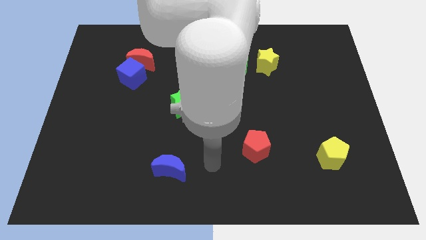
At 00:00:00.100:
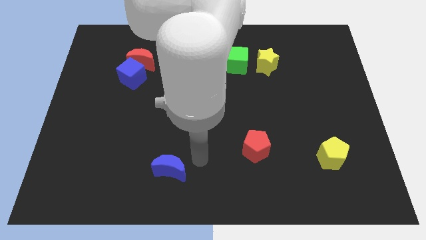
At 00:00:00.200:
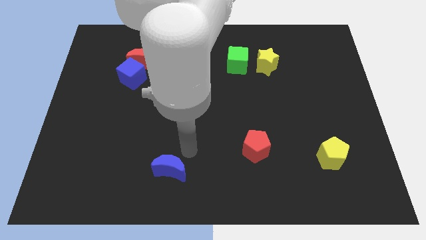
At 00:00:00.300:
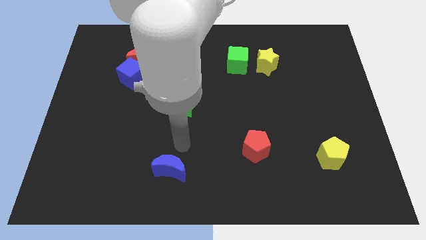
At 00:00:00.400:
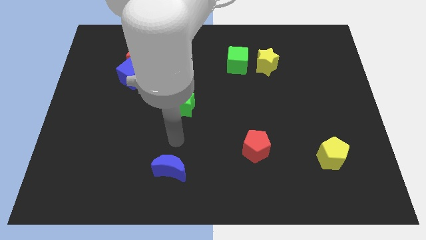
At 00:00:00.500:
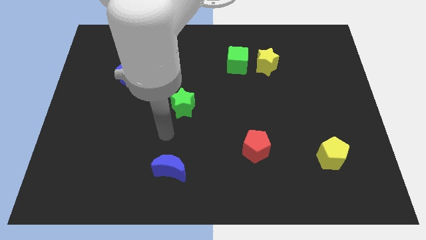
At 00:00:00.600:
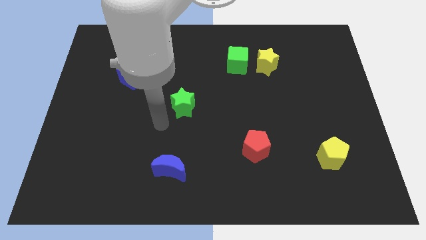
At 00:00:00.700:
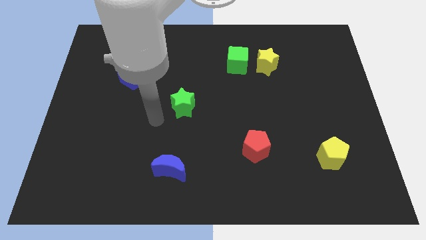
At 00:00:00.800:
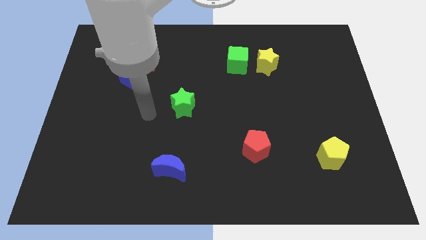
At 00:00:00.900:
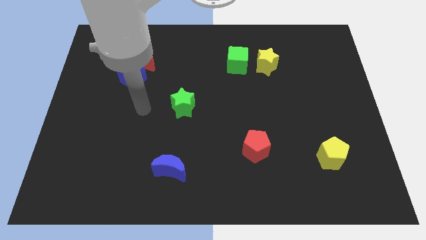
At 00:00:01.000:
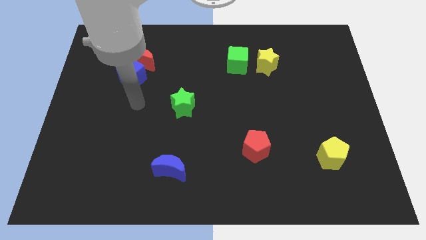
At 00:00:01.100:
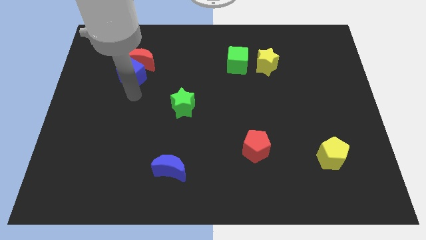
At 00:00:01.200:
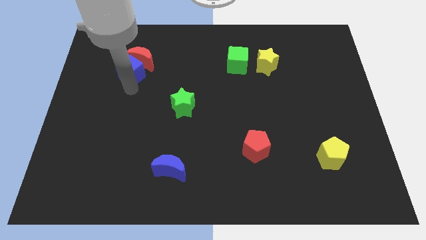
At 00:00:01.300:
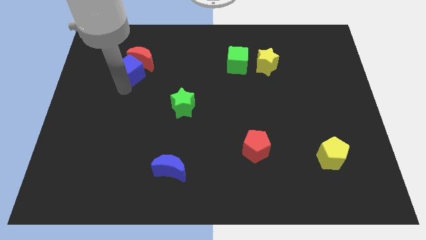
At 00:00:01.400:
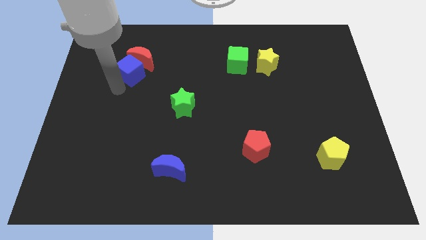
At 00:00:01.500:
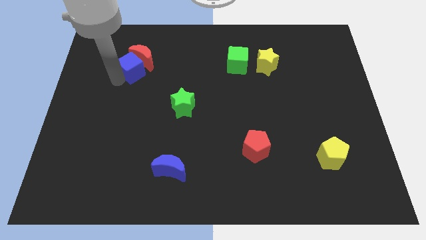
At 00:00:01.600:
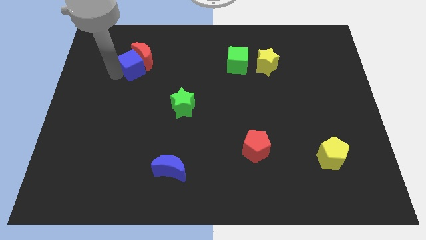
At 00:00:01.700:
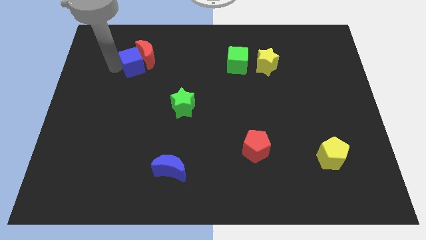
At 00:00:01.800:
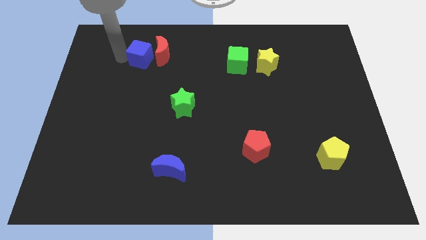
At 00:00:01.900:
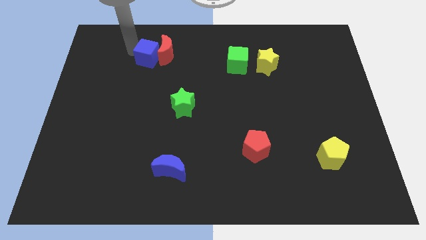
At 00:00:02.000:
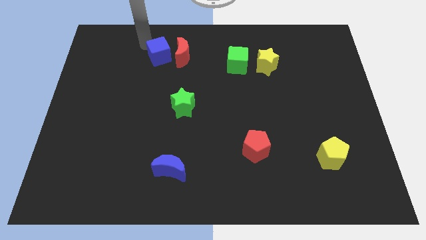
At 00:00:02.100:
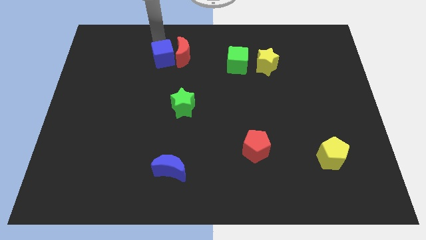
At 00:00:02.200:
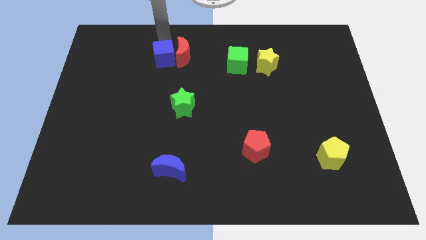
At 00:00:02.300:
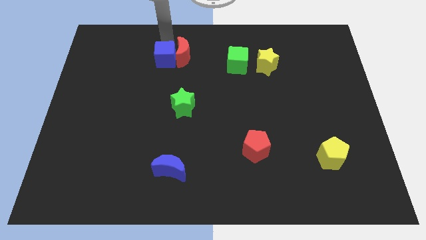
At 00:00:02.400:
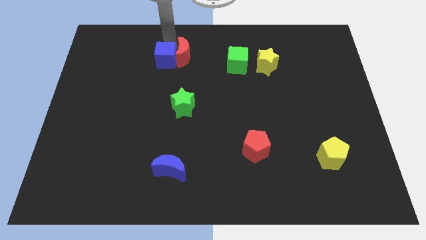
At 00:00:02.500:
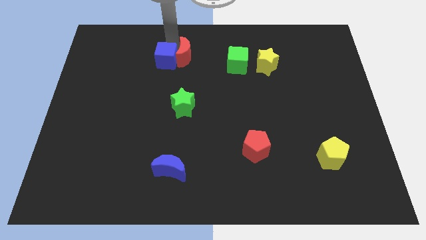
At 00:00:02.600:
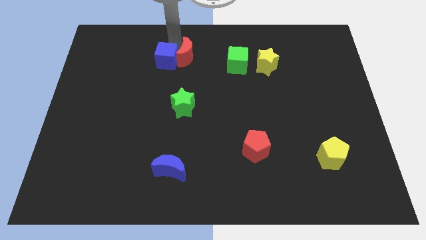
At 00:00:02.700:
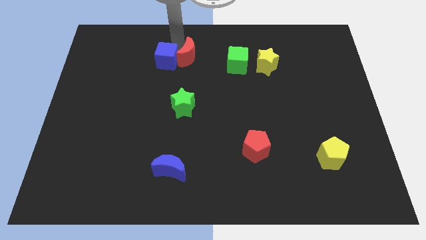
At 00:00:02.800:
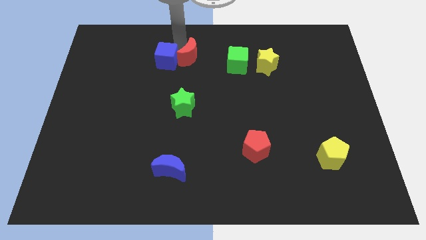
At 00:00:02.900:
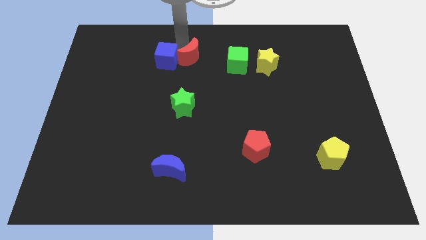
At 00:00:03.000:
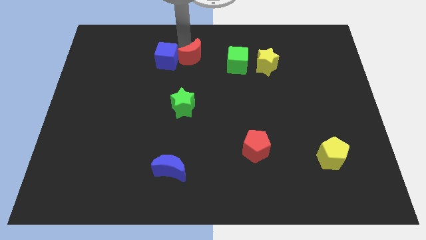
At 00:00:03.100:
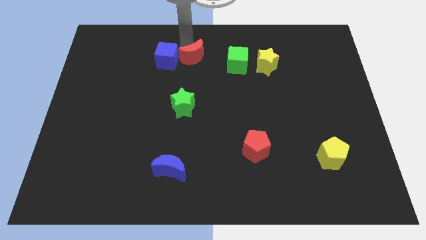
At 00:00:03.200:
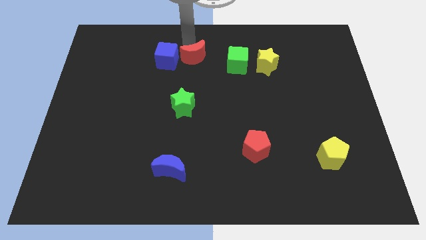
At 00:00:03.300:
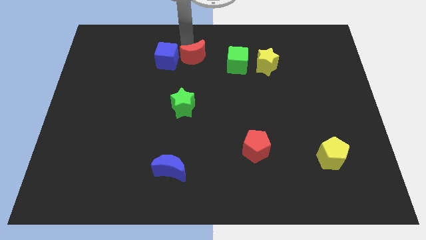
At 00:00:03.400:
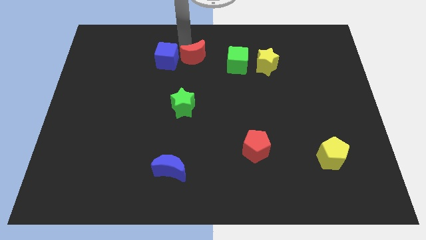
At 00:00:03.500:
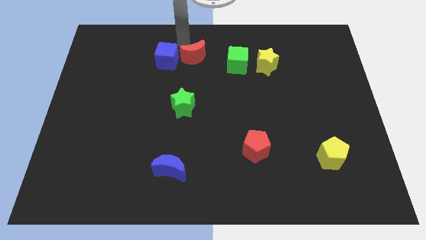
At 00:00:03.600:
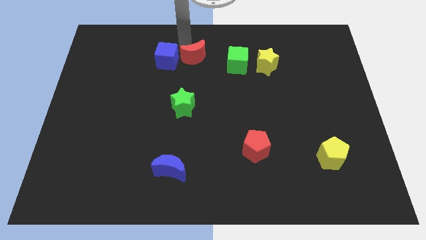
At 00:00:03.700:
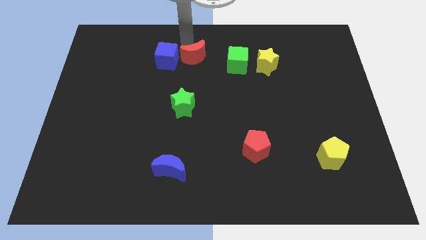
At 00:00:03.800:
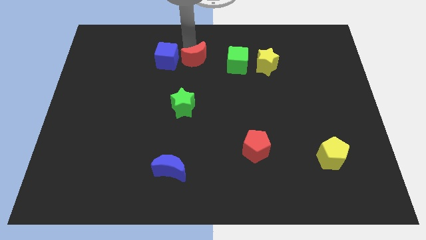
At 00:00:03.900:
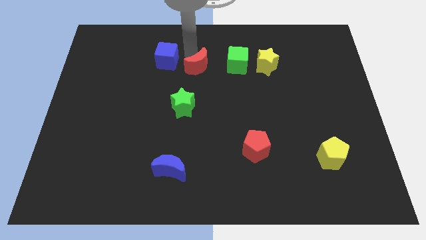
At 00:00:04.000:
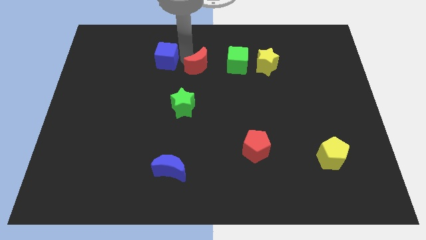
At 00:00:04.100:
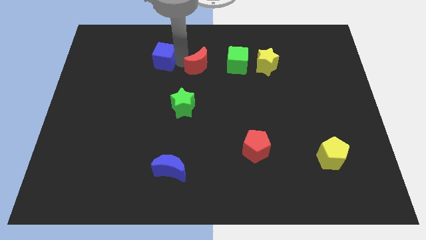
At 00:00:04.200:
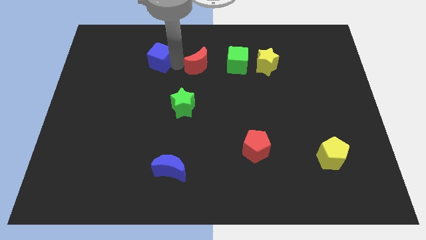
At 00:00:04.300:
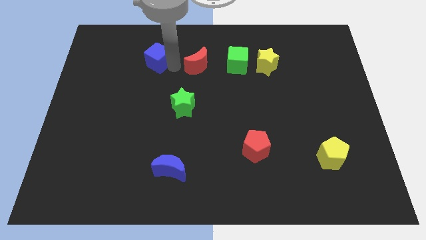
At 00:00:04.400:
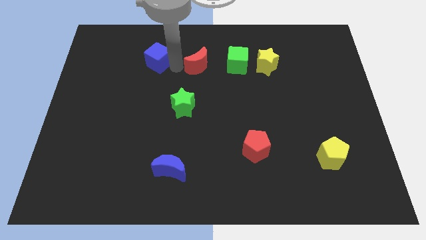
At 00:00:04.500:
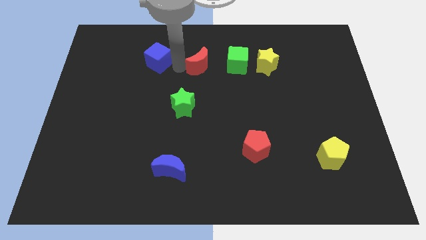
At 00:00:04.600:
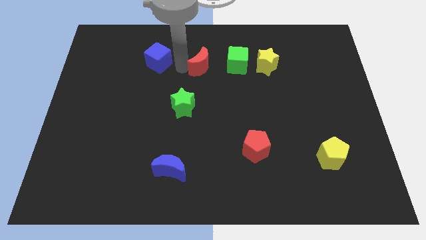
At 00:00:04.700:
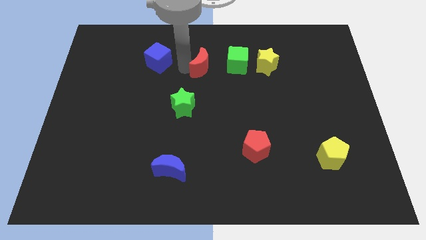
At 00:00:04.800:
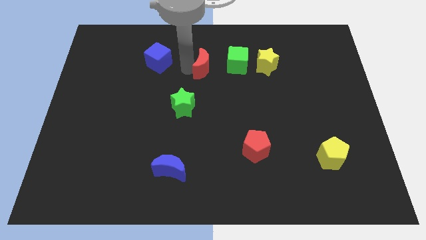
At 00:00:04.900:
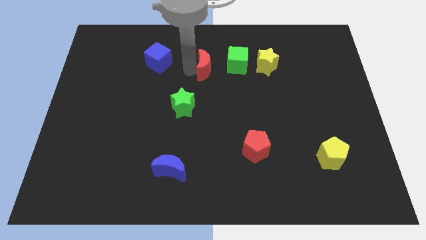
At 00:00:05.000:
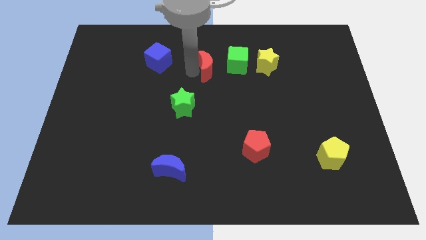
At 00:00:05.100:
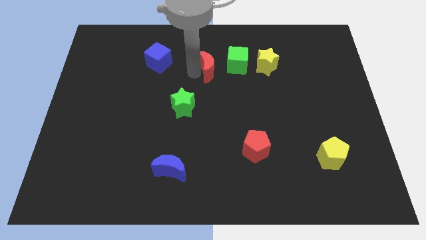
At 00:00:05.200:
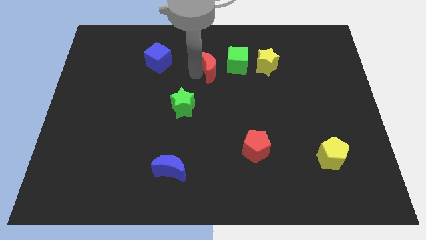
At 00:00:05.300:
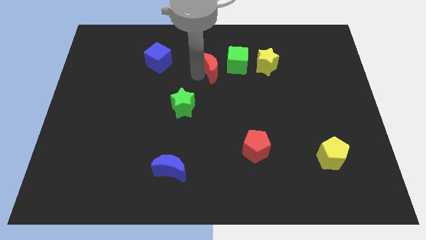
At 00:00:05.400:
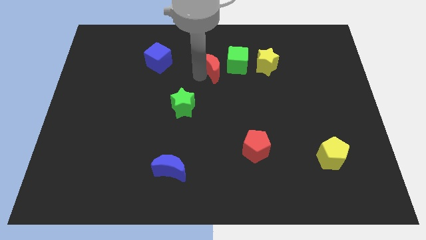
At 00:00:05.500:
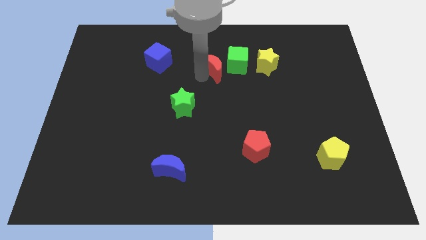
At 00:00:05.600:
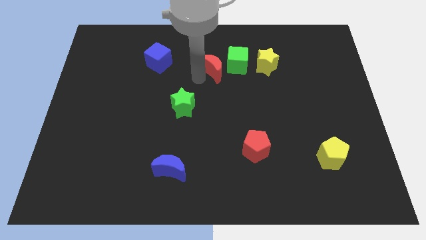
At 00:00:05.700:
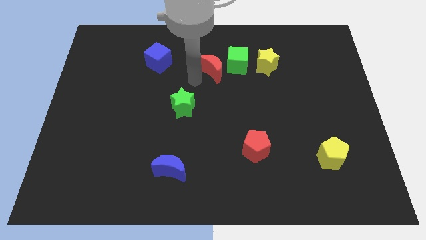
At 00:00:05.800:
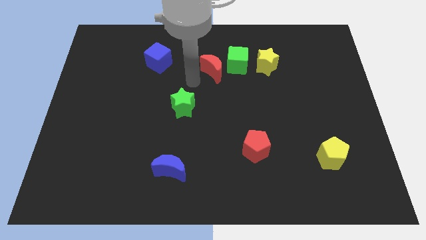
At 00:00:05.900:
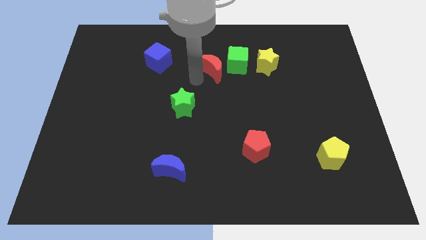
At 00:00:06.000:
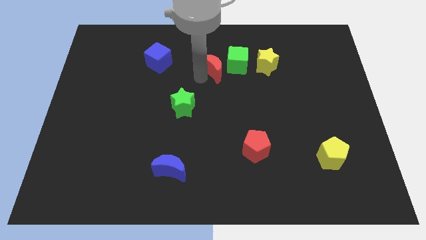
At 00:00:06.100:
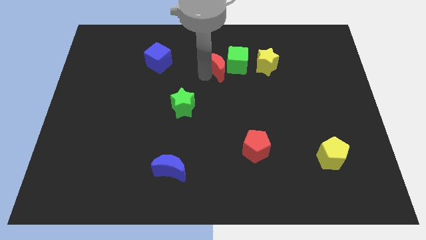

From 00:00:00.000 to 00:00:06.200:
put the red moon towards the green cube

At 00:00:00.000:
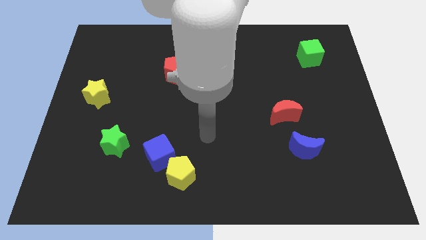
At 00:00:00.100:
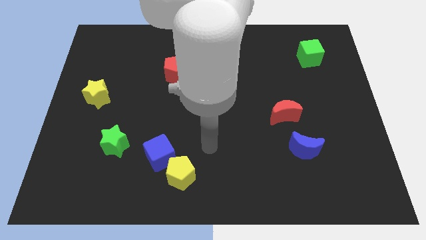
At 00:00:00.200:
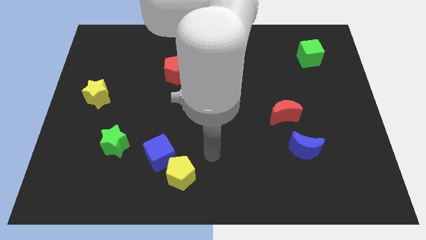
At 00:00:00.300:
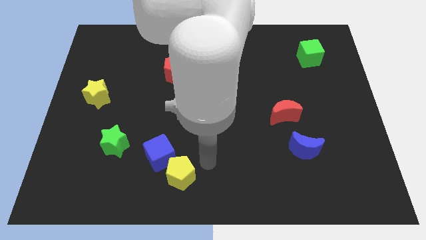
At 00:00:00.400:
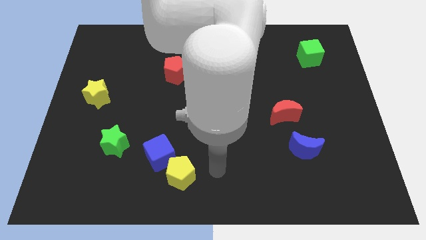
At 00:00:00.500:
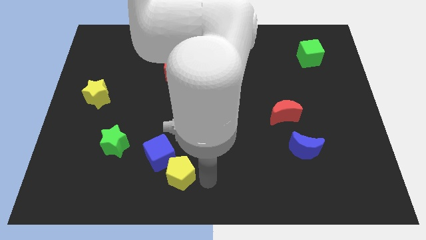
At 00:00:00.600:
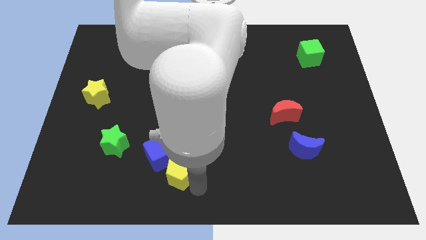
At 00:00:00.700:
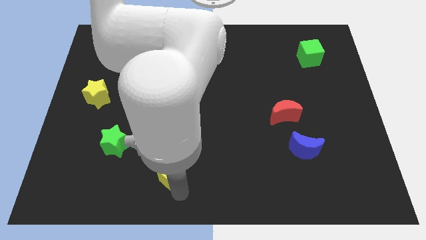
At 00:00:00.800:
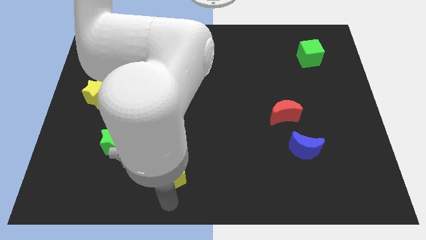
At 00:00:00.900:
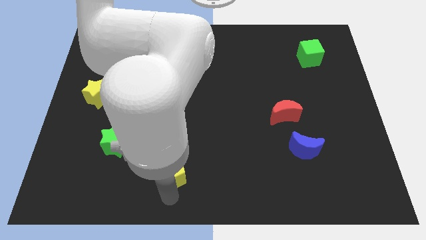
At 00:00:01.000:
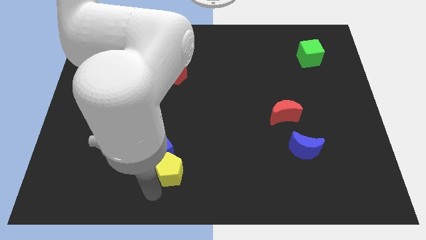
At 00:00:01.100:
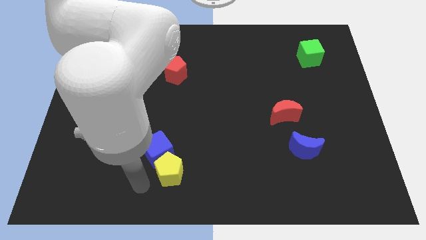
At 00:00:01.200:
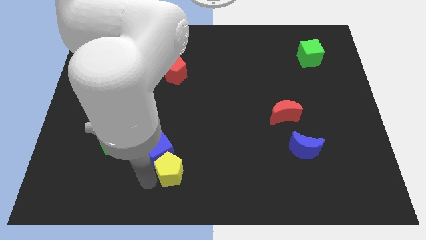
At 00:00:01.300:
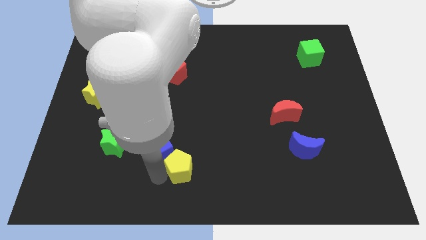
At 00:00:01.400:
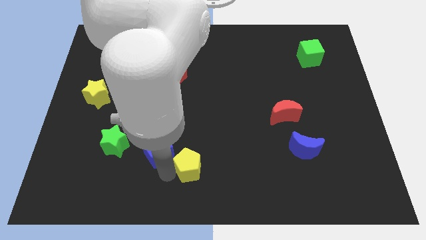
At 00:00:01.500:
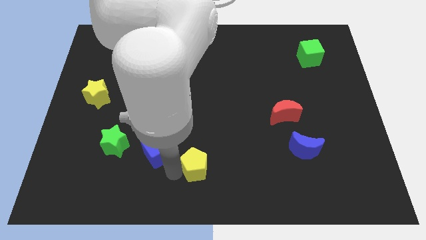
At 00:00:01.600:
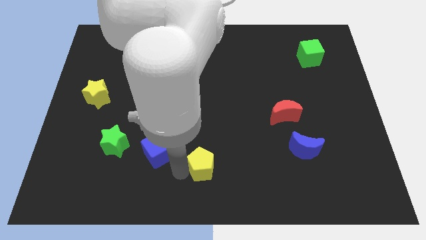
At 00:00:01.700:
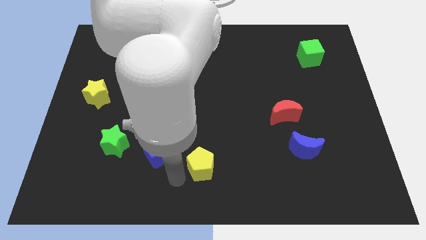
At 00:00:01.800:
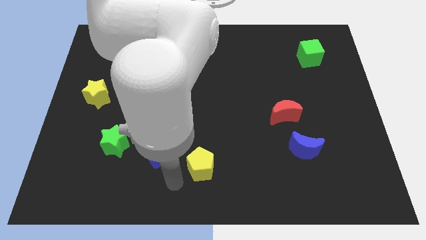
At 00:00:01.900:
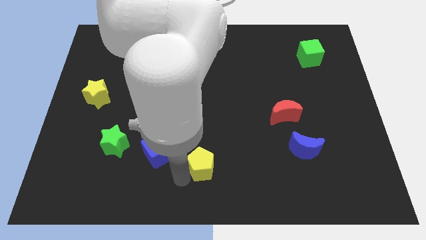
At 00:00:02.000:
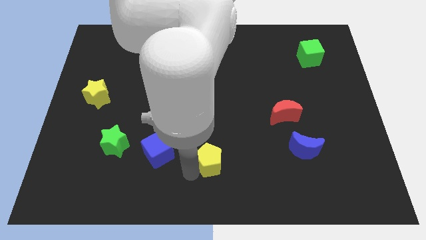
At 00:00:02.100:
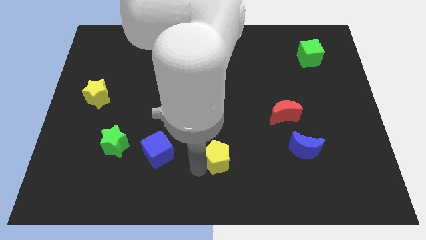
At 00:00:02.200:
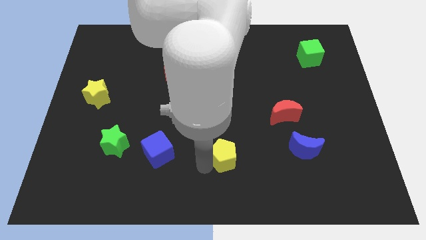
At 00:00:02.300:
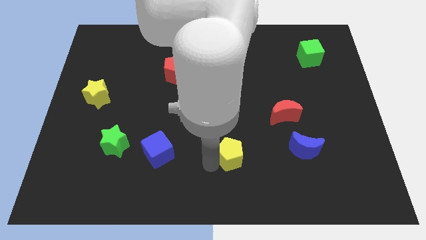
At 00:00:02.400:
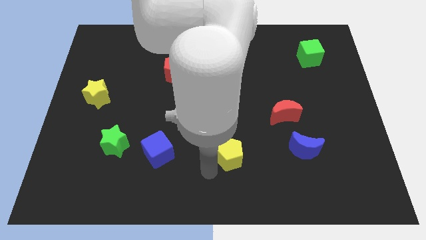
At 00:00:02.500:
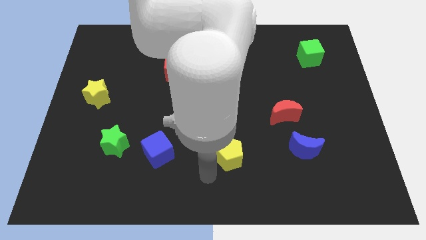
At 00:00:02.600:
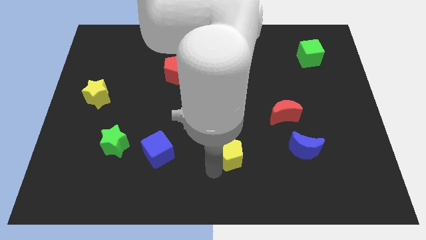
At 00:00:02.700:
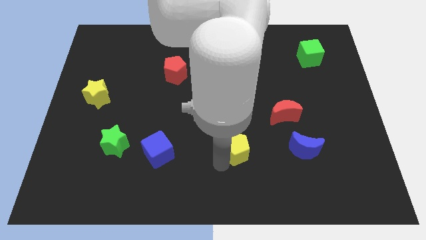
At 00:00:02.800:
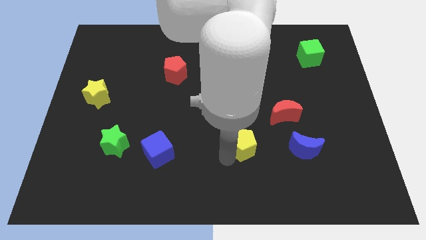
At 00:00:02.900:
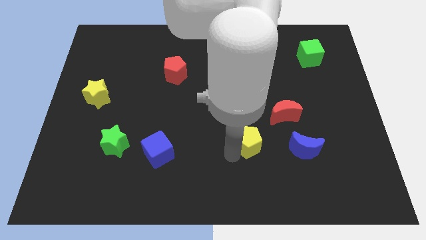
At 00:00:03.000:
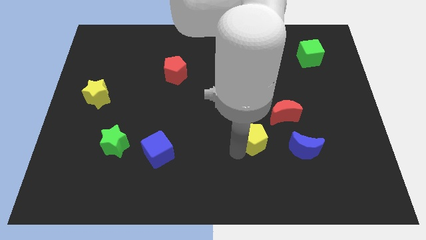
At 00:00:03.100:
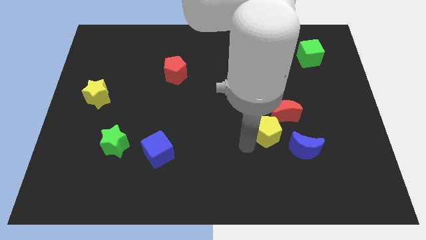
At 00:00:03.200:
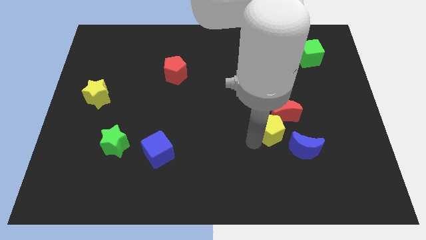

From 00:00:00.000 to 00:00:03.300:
move the yellow pentagon close to the red moon
